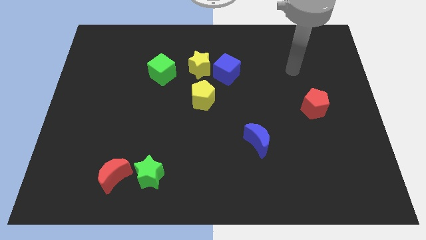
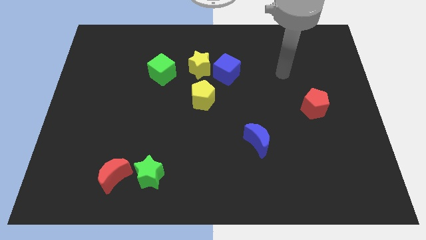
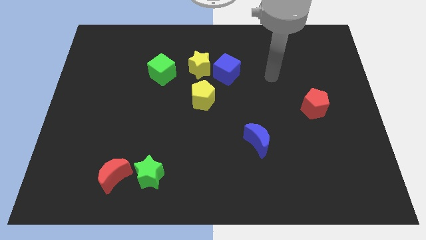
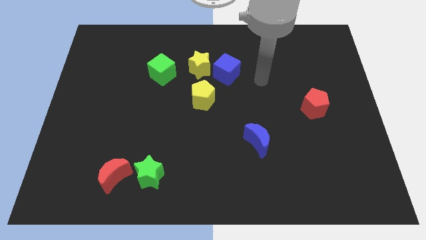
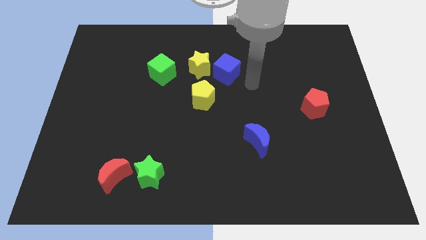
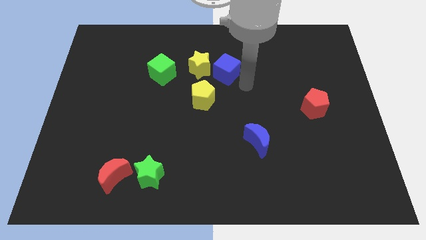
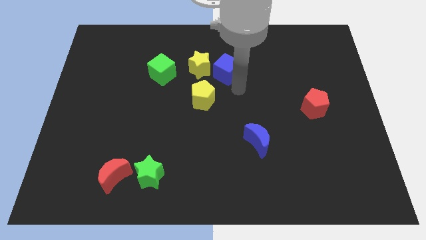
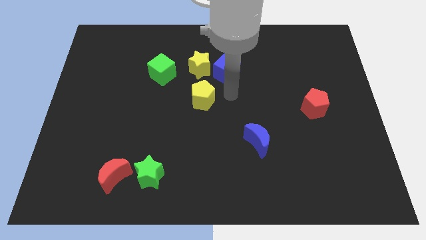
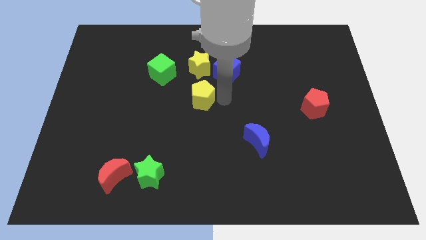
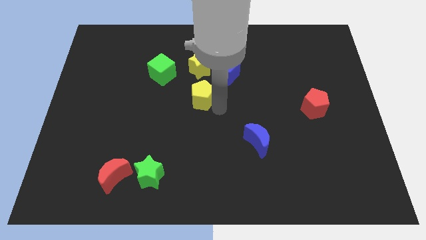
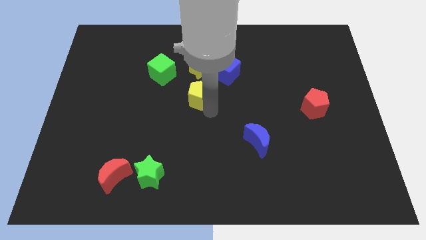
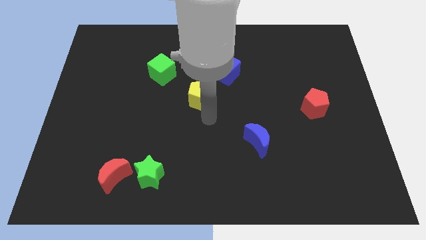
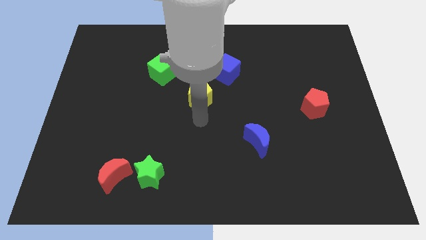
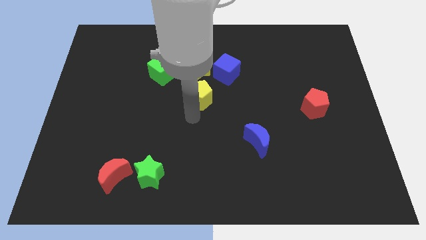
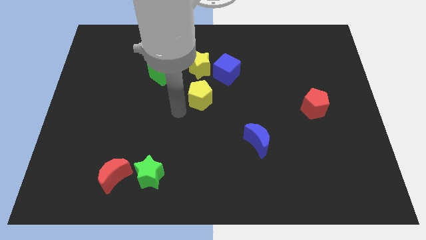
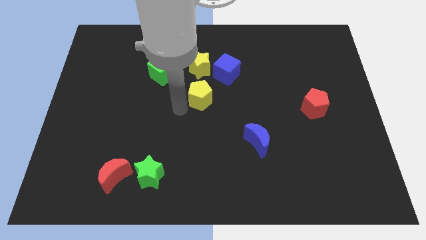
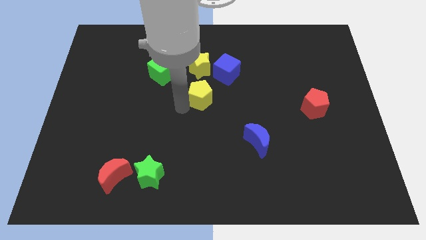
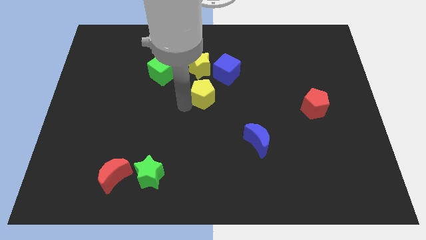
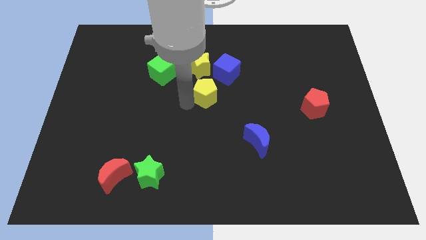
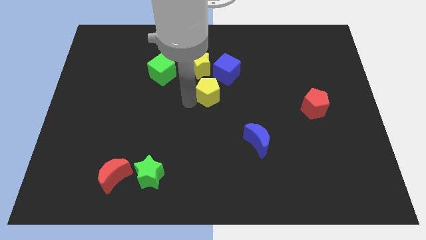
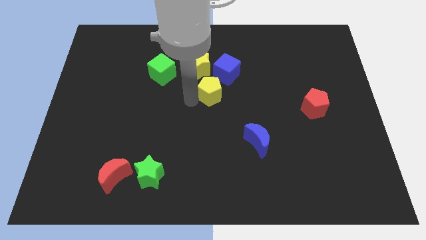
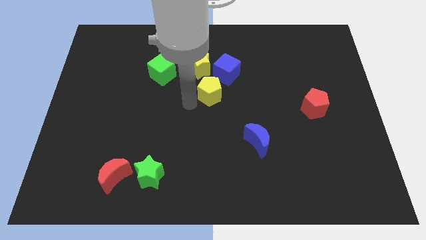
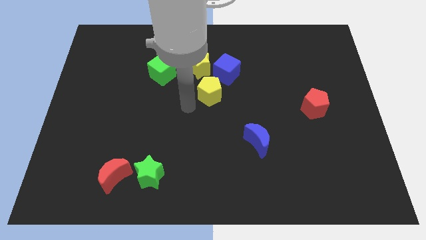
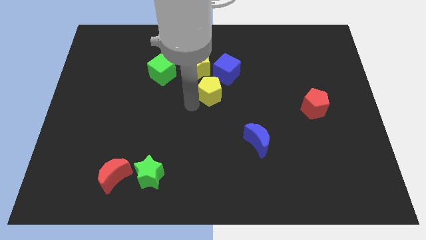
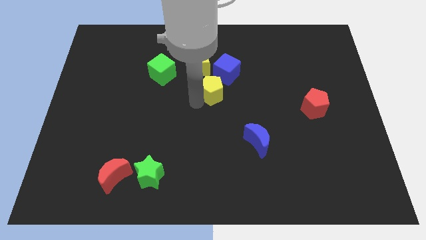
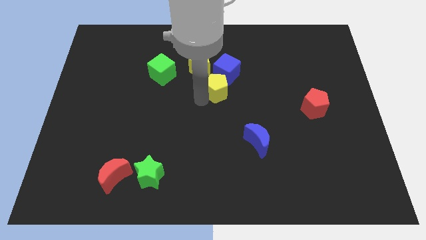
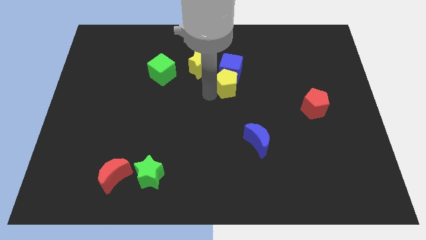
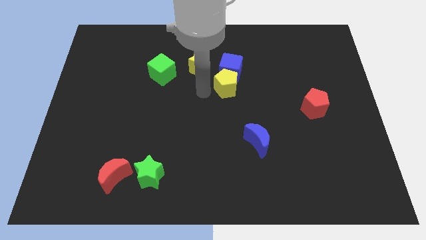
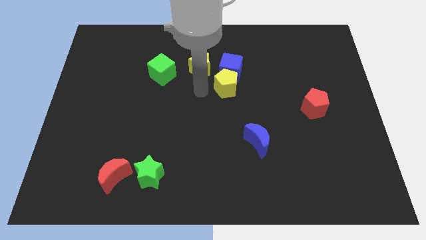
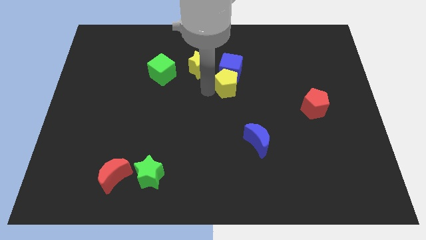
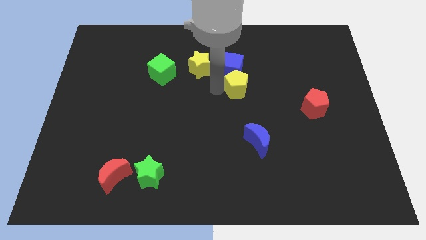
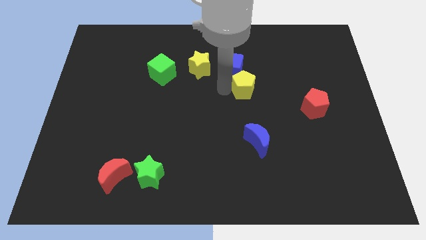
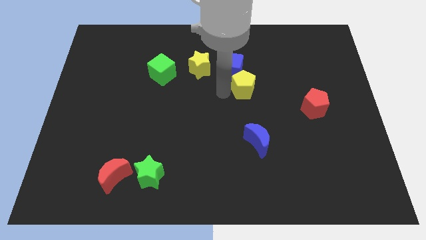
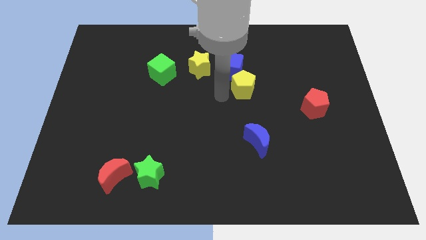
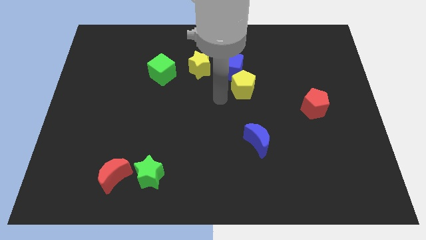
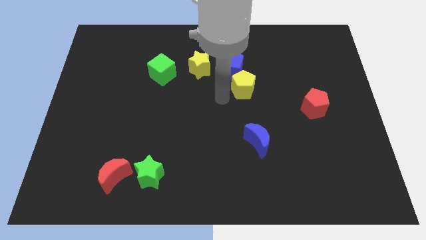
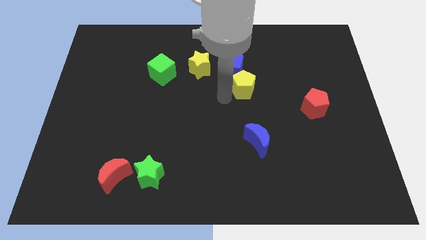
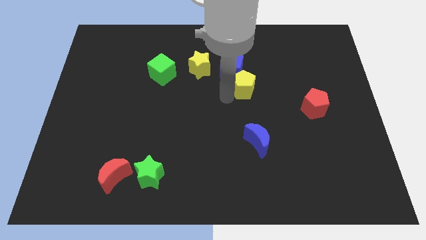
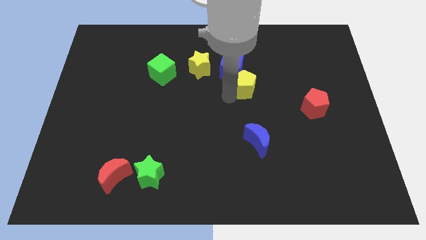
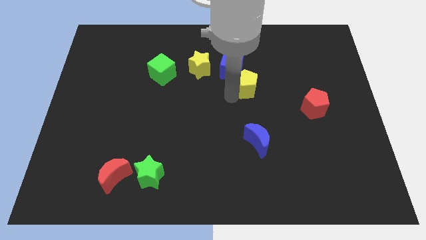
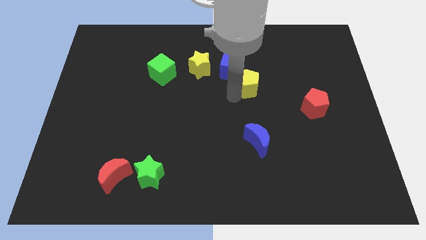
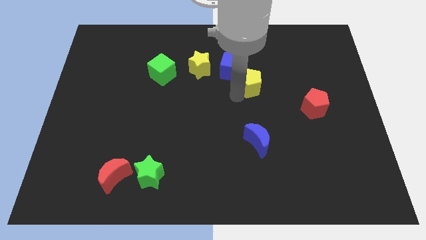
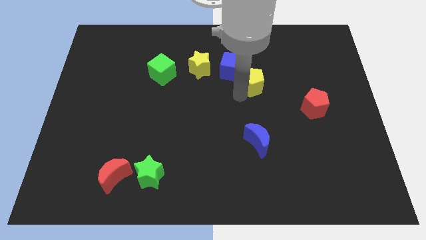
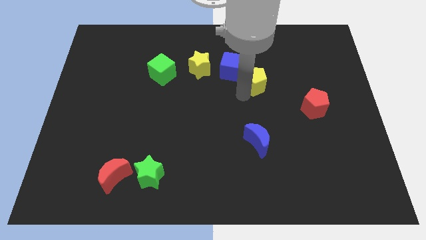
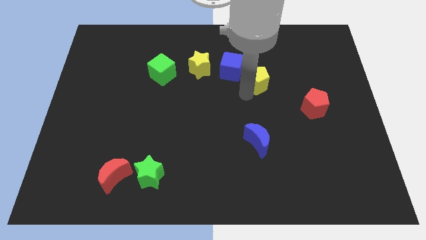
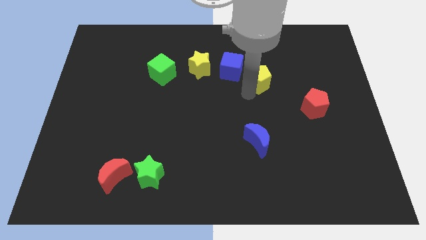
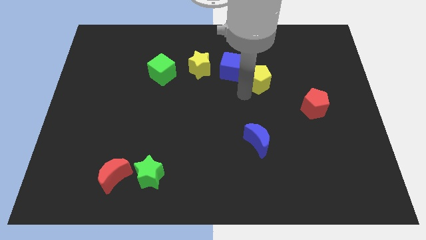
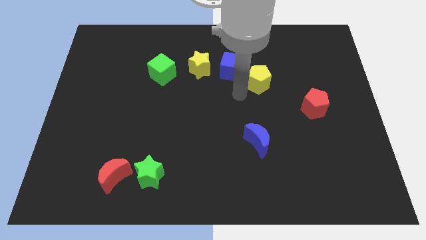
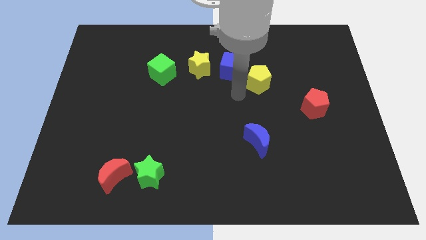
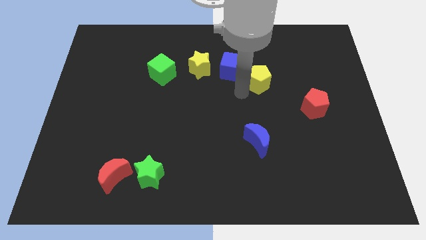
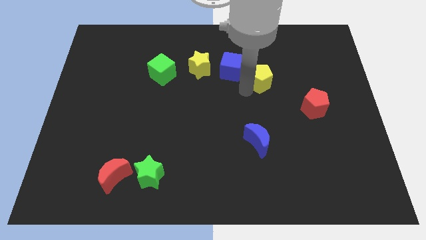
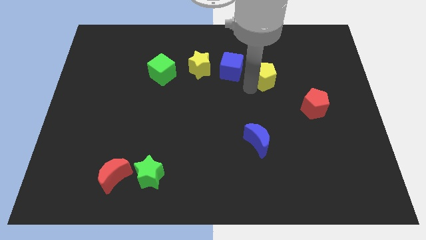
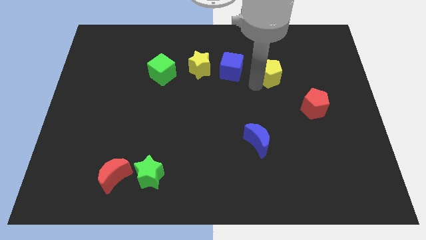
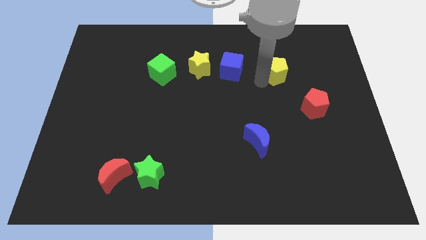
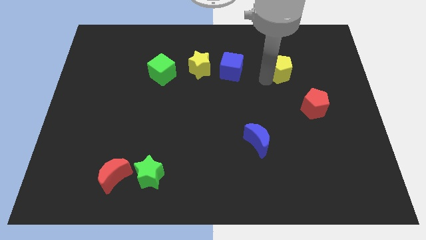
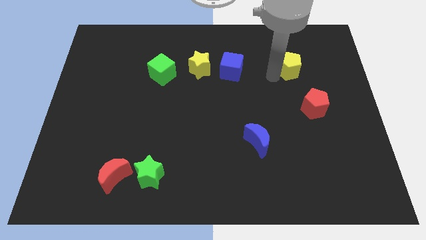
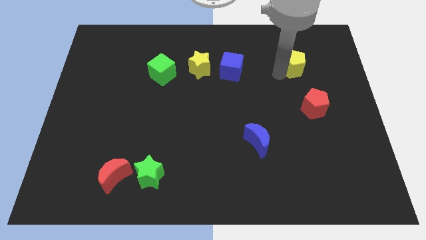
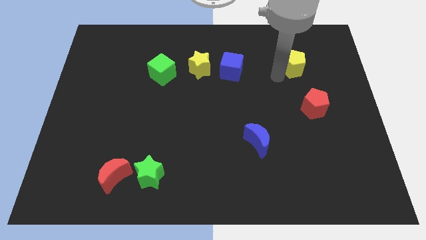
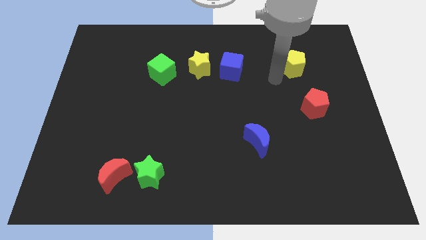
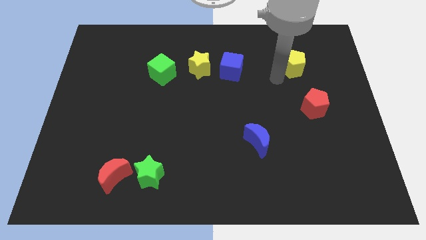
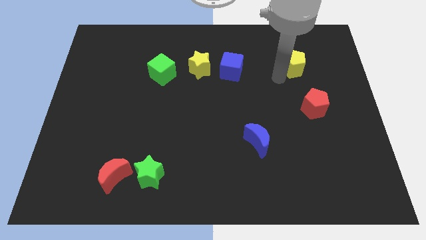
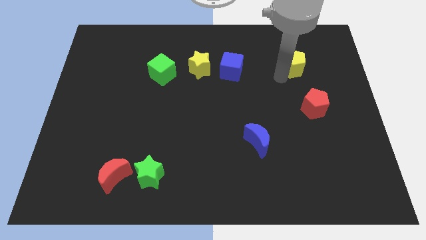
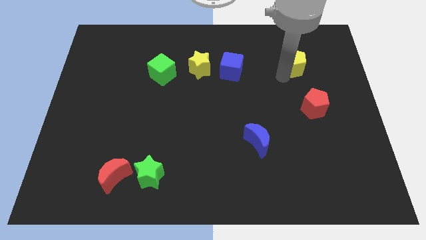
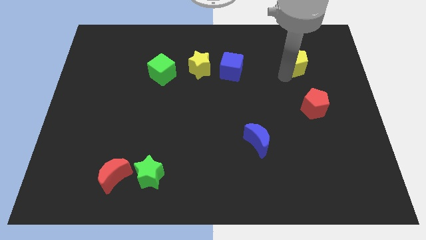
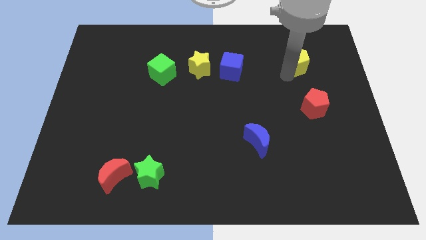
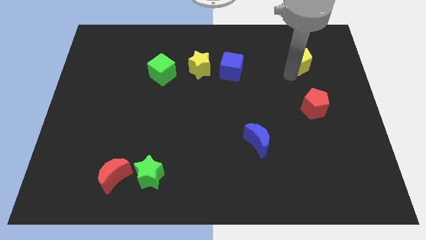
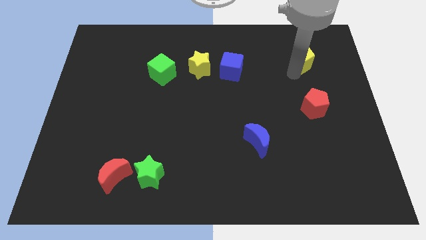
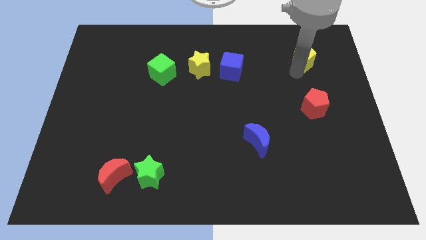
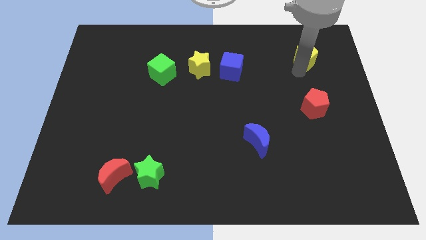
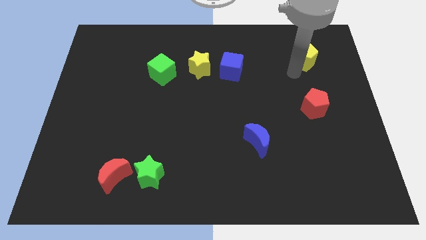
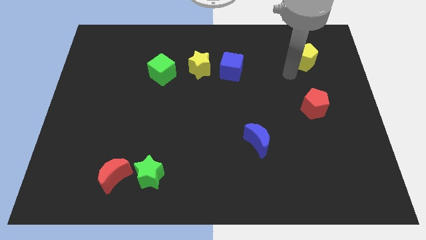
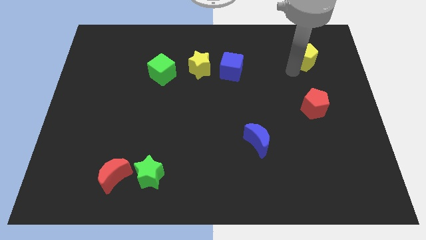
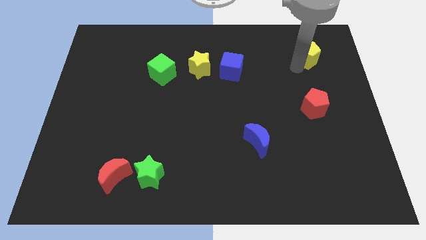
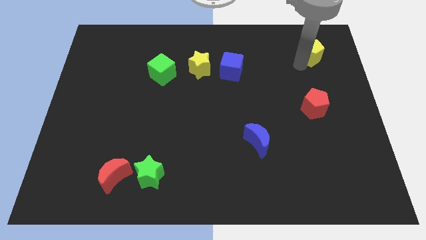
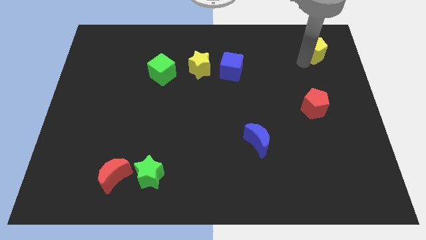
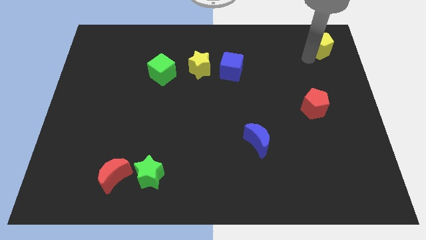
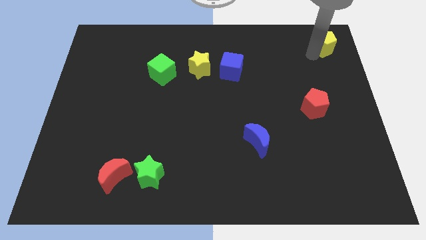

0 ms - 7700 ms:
push the yellow pentagon to the upper right corner
